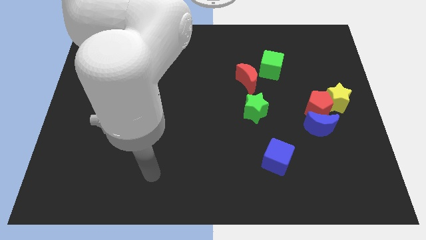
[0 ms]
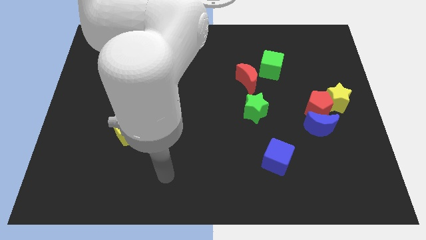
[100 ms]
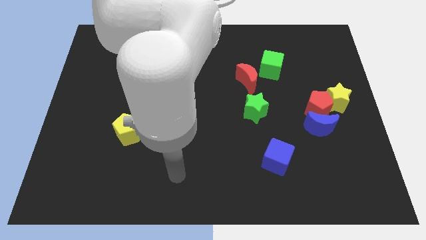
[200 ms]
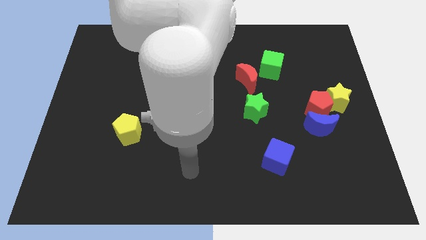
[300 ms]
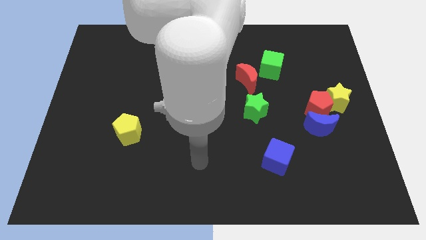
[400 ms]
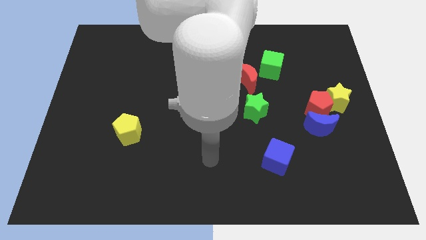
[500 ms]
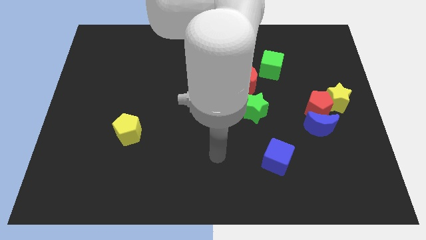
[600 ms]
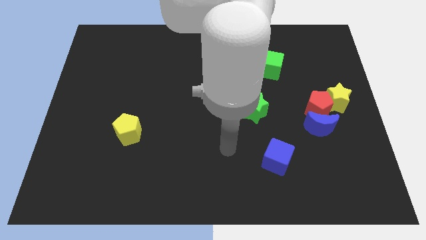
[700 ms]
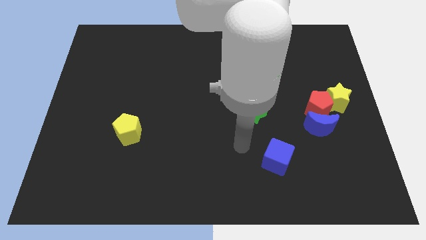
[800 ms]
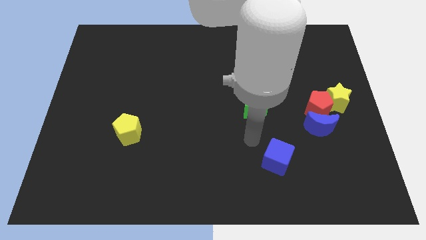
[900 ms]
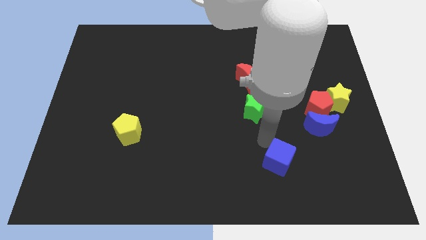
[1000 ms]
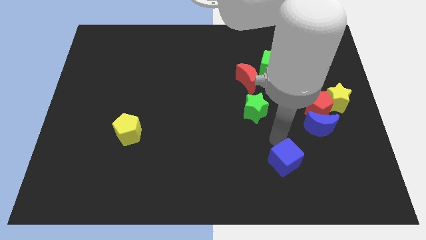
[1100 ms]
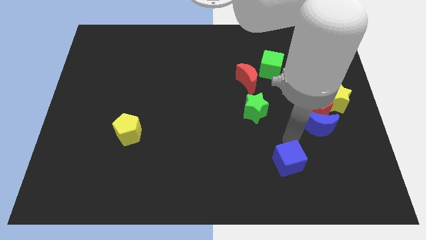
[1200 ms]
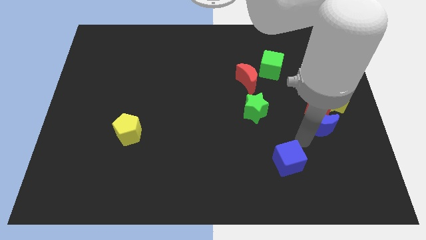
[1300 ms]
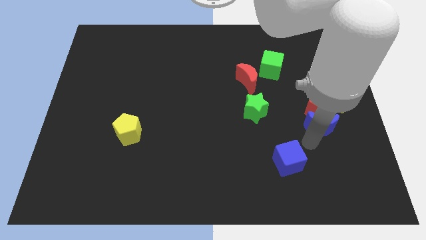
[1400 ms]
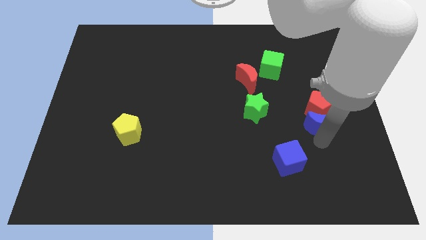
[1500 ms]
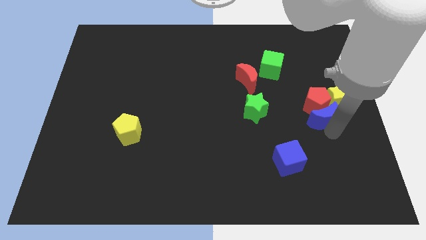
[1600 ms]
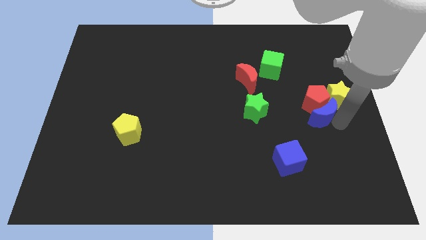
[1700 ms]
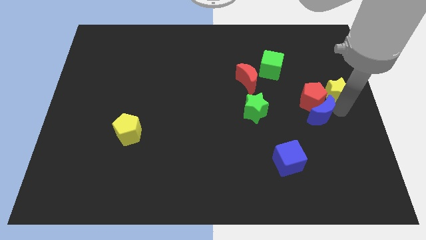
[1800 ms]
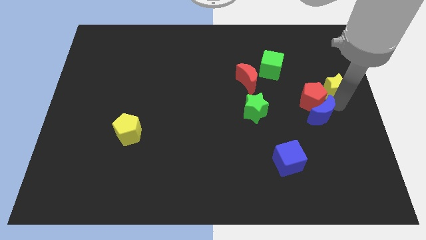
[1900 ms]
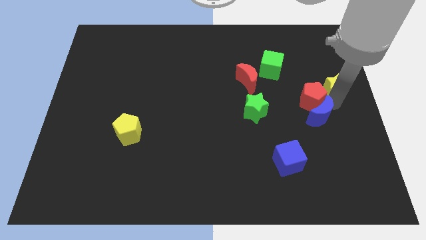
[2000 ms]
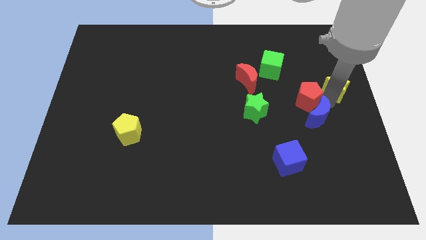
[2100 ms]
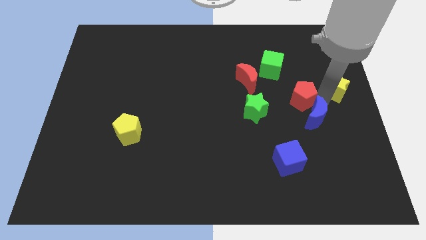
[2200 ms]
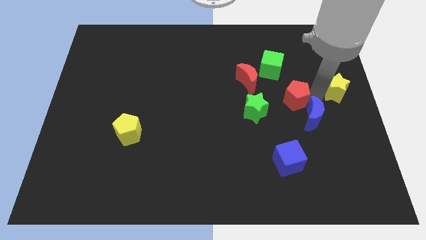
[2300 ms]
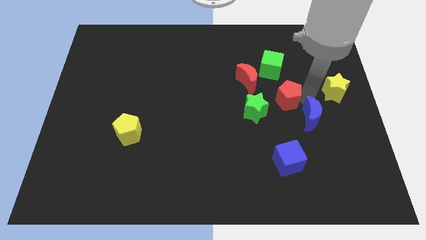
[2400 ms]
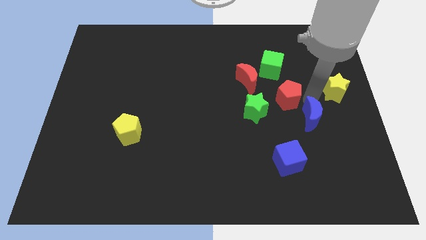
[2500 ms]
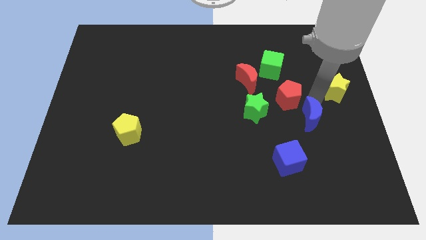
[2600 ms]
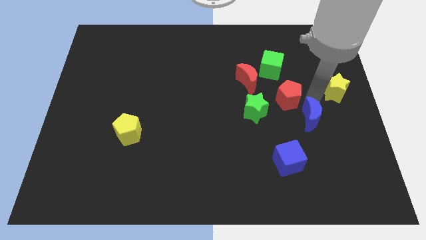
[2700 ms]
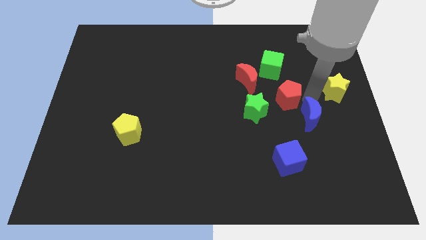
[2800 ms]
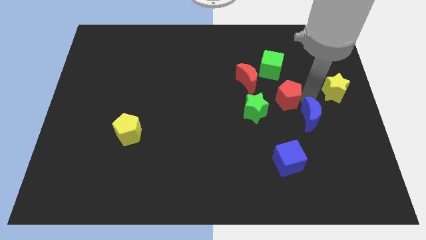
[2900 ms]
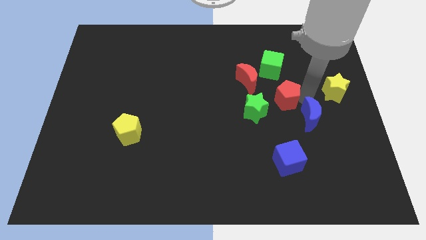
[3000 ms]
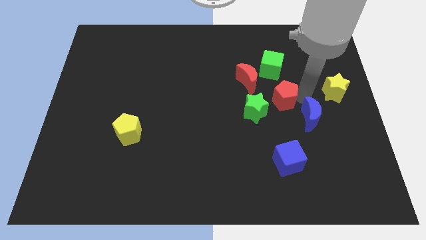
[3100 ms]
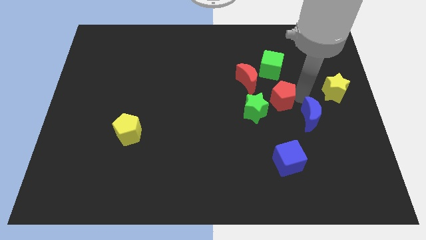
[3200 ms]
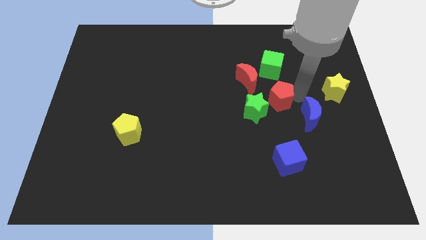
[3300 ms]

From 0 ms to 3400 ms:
pull the red pentagon apart from the blue moon and yellow star

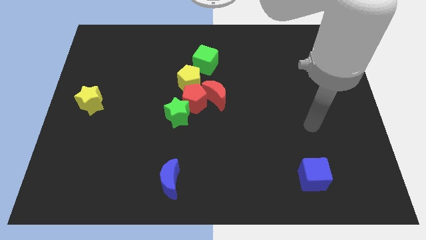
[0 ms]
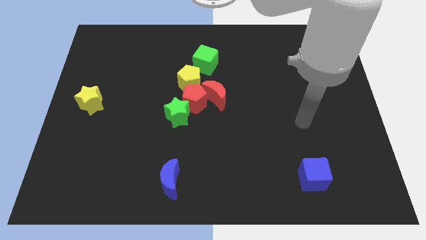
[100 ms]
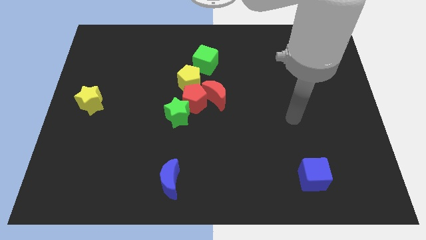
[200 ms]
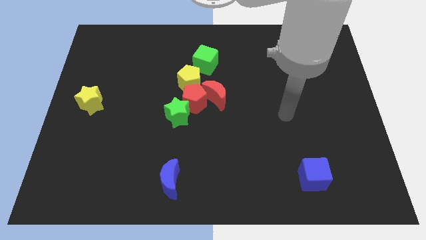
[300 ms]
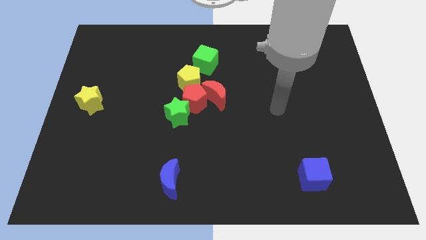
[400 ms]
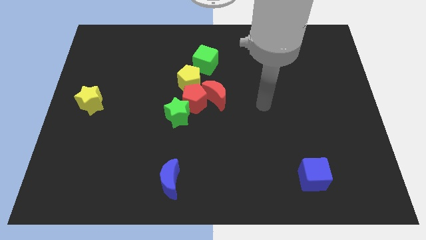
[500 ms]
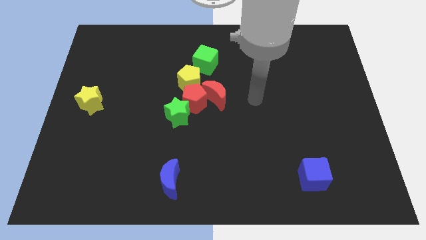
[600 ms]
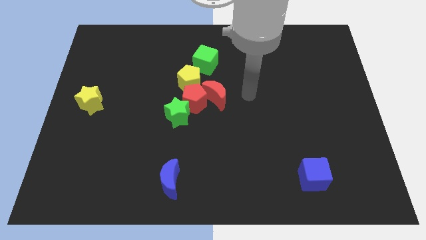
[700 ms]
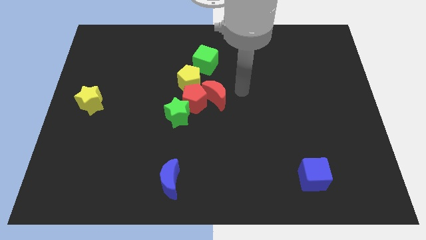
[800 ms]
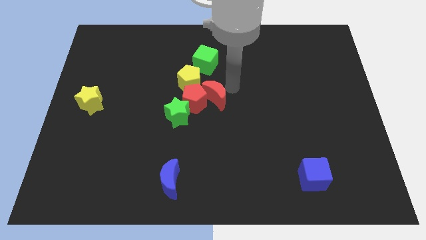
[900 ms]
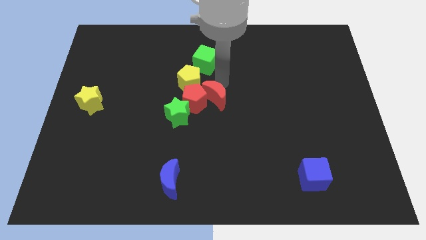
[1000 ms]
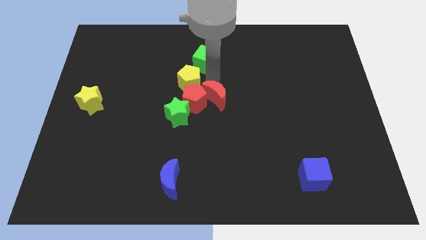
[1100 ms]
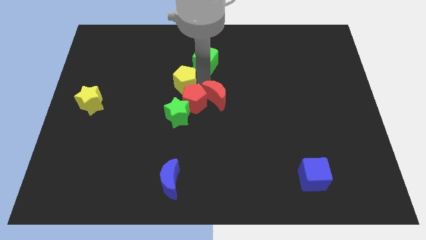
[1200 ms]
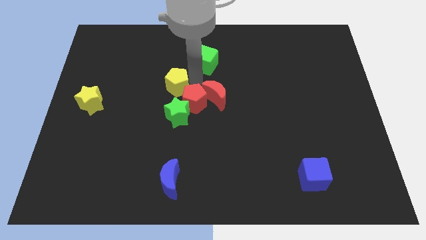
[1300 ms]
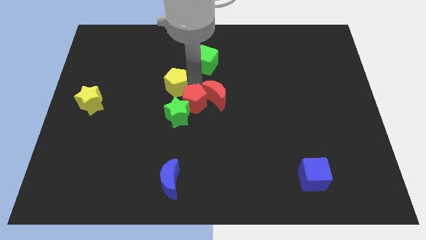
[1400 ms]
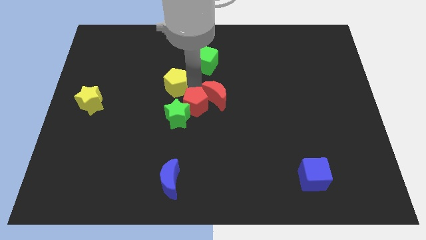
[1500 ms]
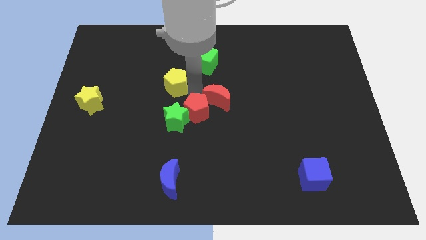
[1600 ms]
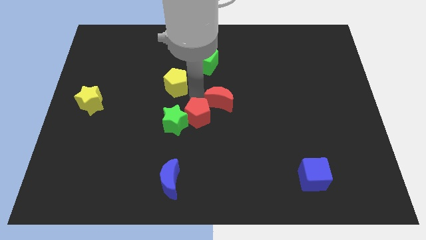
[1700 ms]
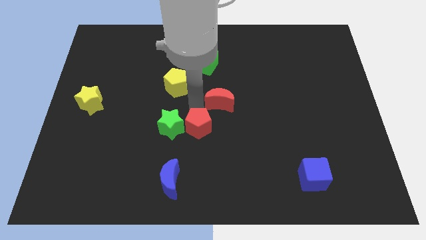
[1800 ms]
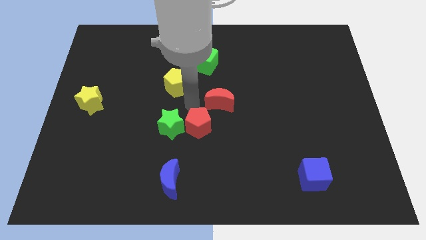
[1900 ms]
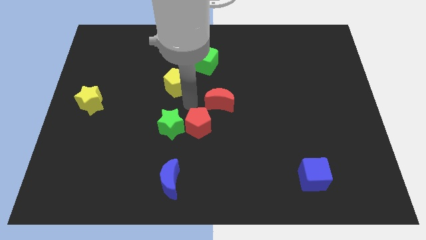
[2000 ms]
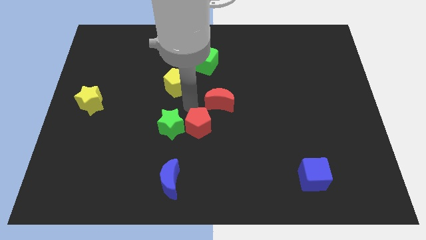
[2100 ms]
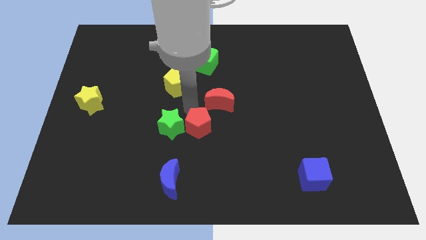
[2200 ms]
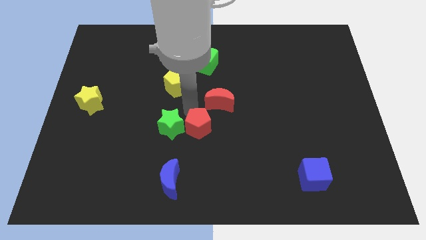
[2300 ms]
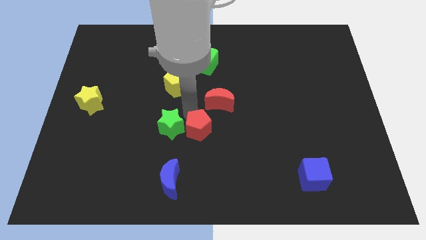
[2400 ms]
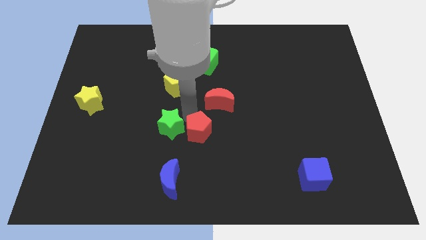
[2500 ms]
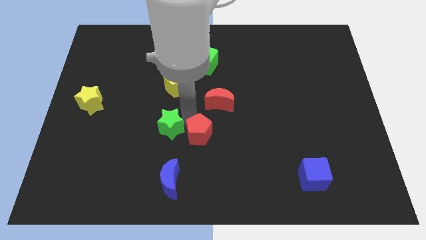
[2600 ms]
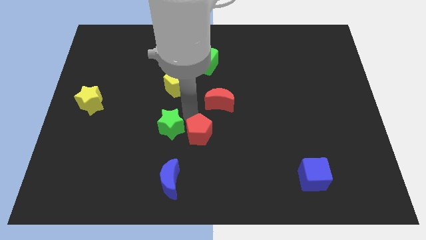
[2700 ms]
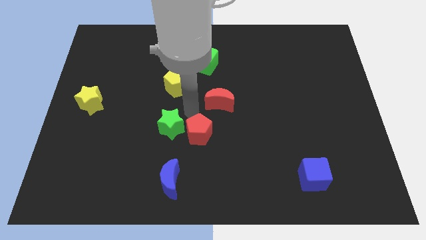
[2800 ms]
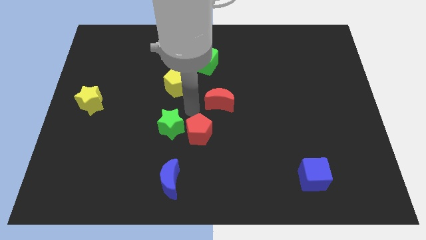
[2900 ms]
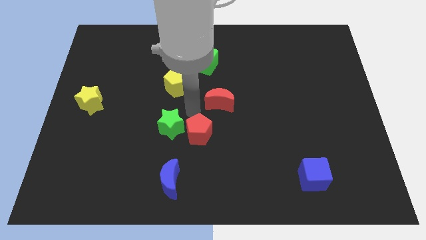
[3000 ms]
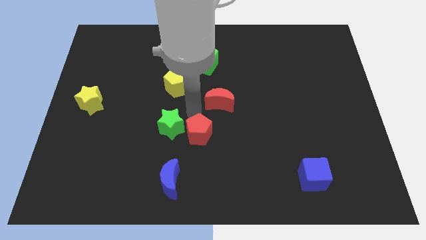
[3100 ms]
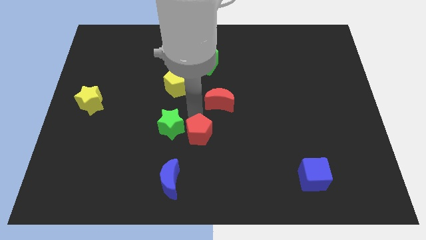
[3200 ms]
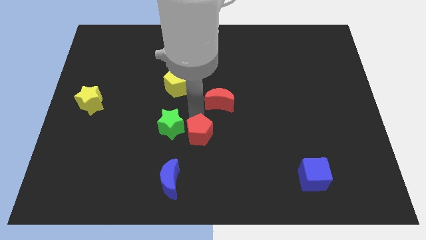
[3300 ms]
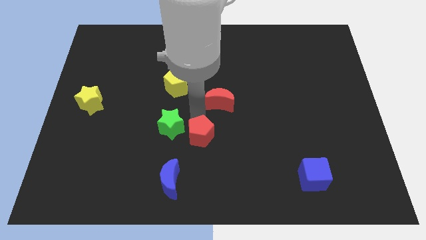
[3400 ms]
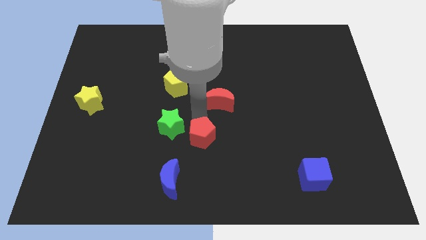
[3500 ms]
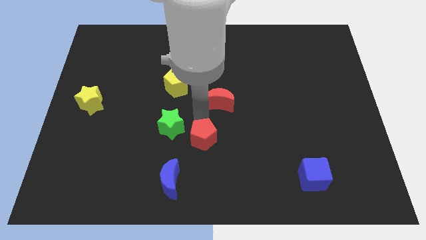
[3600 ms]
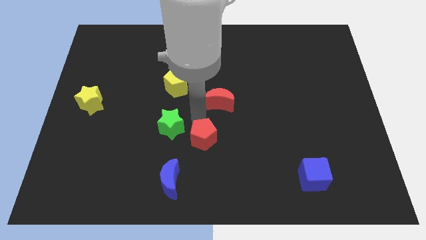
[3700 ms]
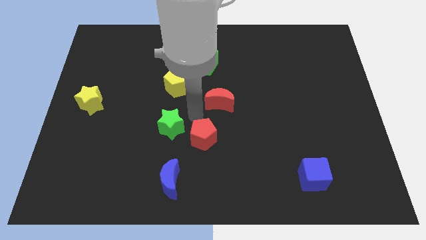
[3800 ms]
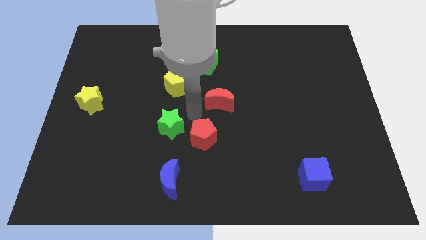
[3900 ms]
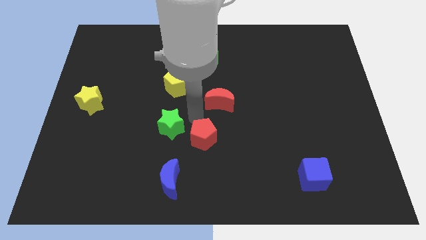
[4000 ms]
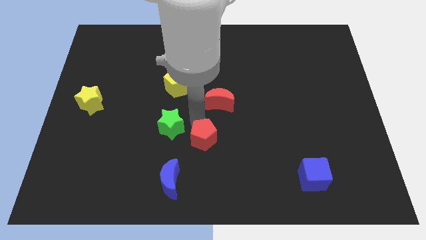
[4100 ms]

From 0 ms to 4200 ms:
pull the red pentagon apart from the red moon, green star, and yellow pentagon

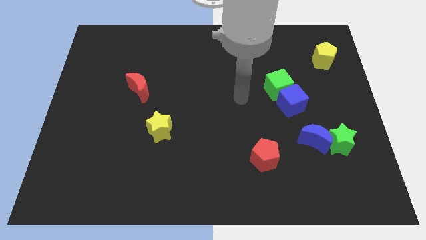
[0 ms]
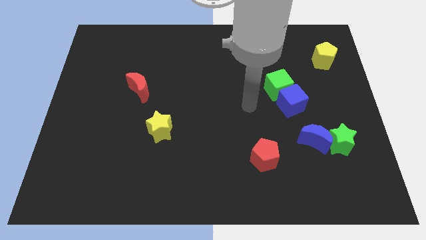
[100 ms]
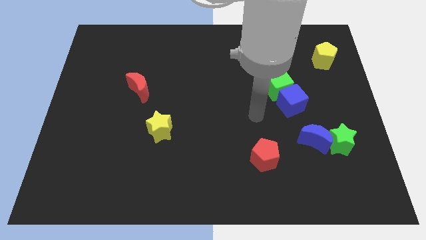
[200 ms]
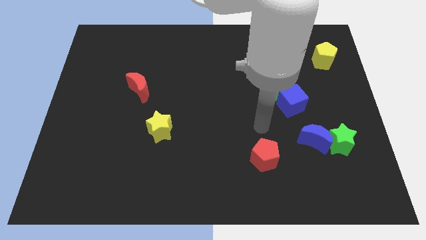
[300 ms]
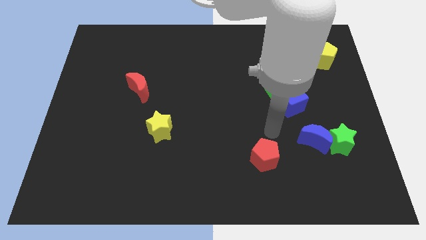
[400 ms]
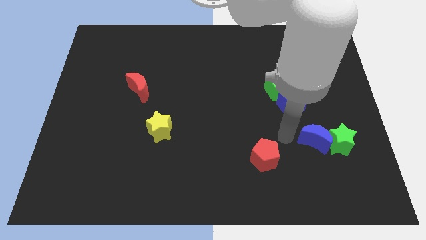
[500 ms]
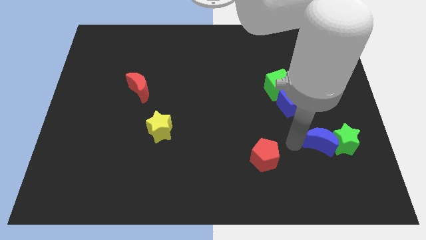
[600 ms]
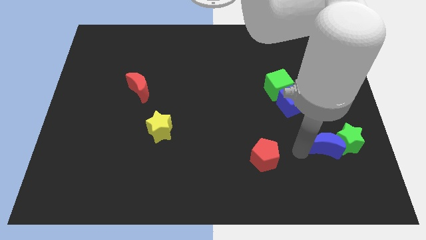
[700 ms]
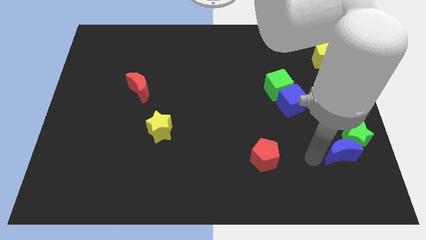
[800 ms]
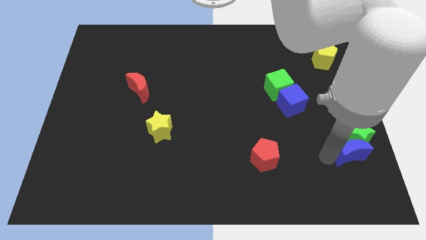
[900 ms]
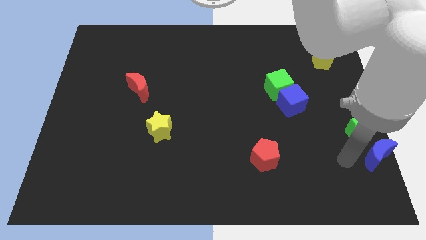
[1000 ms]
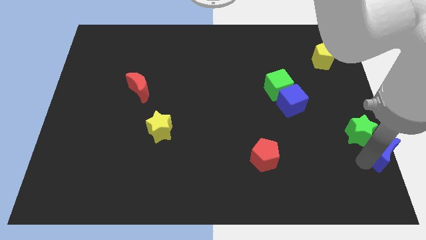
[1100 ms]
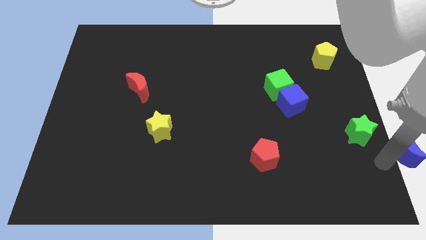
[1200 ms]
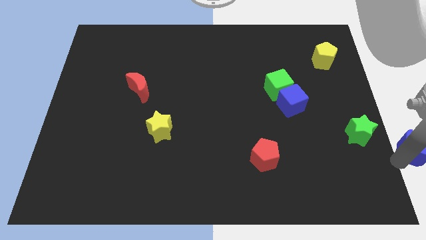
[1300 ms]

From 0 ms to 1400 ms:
pull the blue moon apart from the green star

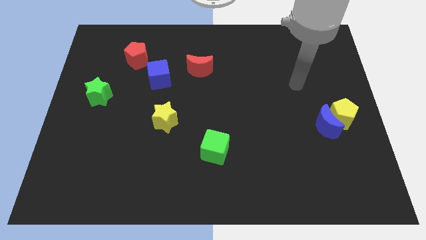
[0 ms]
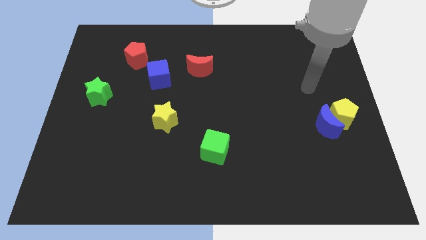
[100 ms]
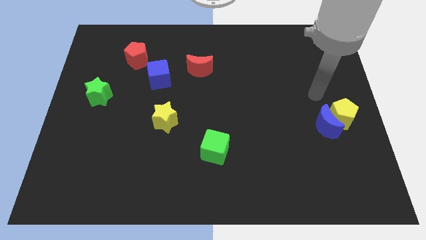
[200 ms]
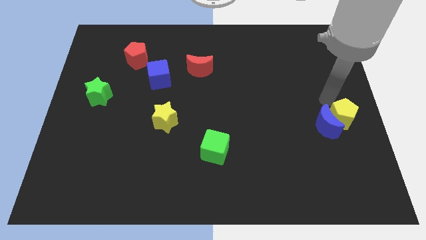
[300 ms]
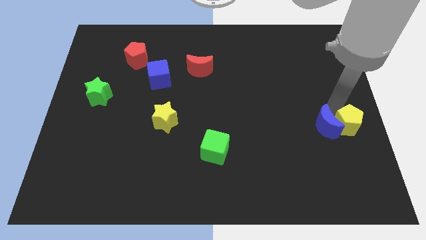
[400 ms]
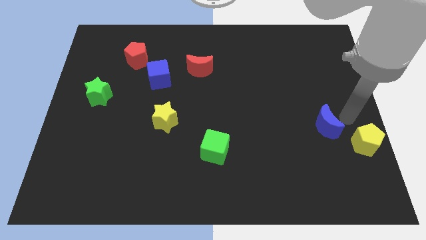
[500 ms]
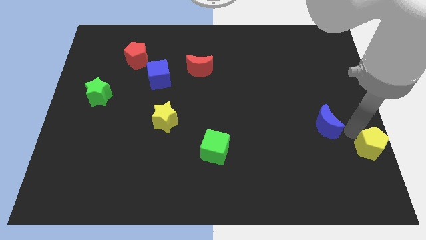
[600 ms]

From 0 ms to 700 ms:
pull the blue moon apart from the yellow pentagon
